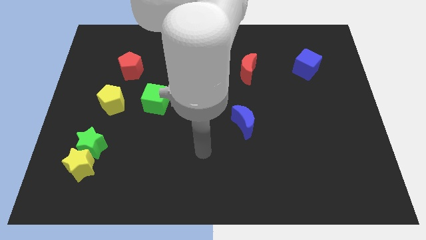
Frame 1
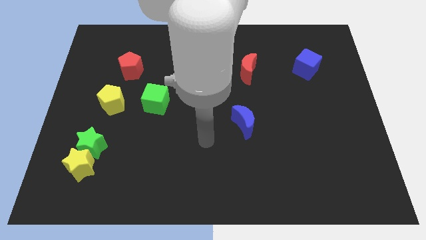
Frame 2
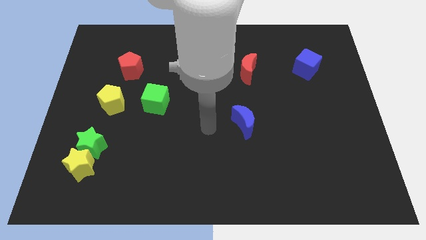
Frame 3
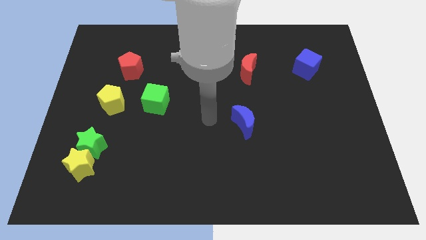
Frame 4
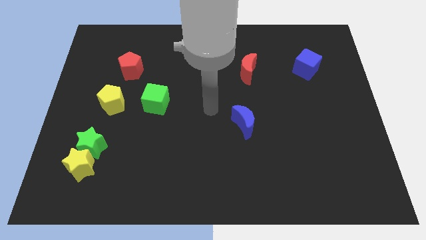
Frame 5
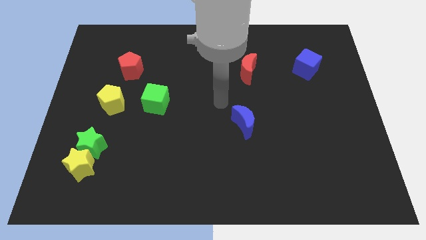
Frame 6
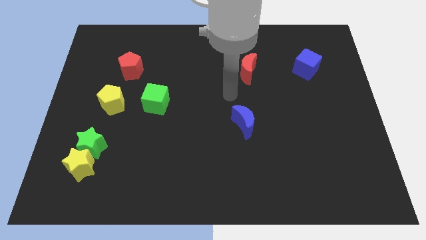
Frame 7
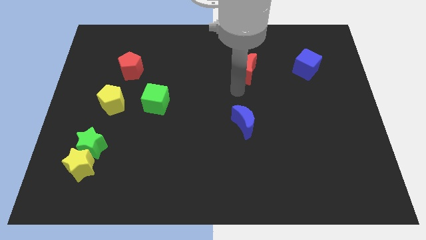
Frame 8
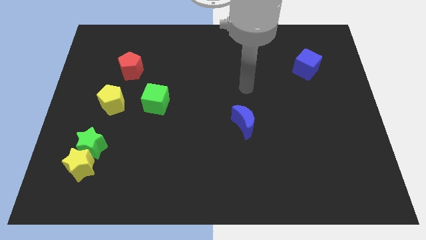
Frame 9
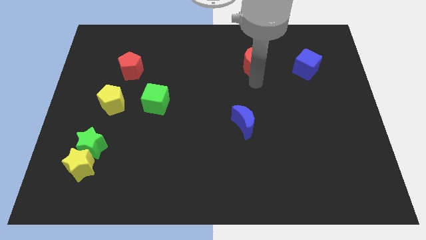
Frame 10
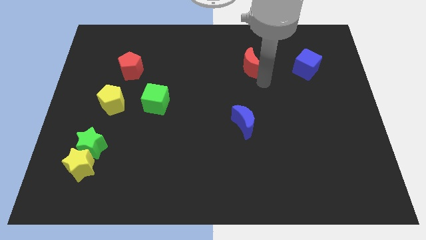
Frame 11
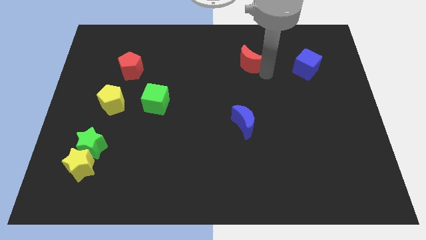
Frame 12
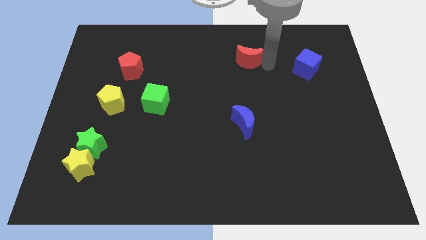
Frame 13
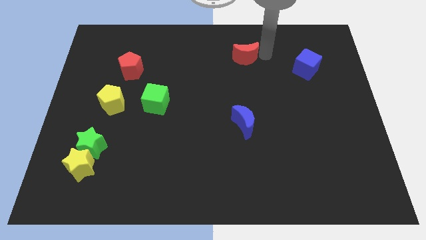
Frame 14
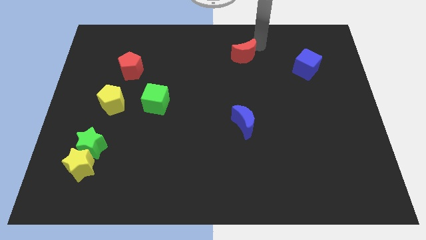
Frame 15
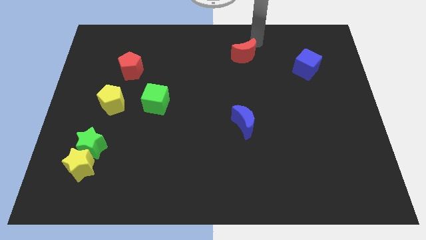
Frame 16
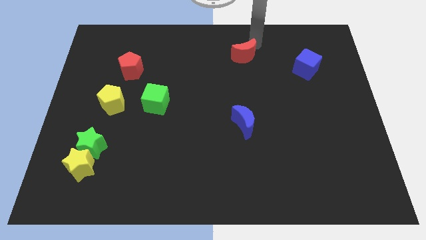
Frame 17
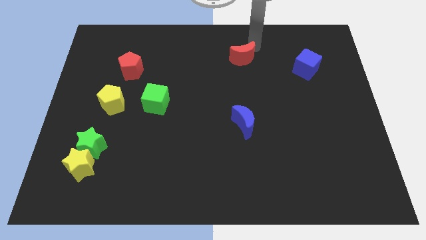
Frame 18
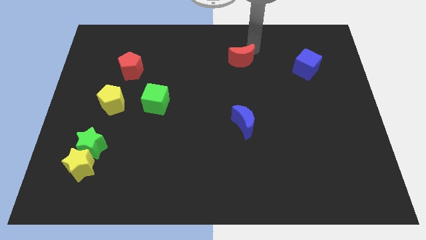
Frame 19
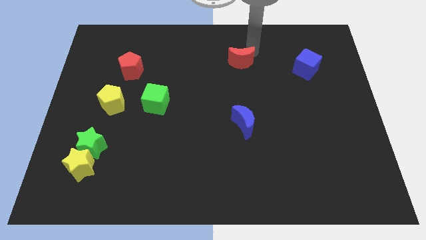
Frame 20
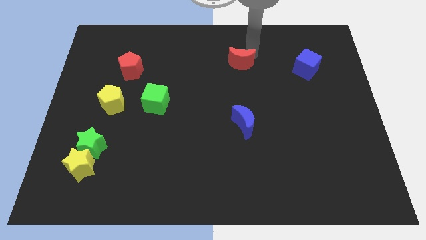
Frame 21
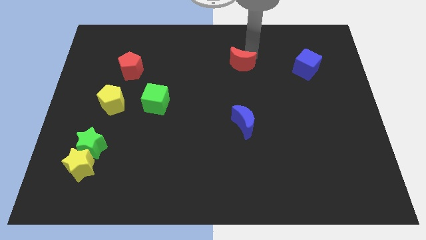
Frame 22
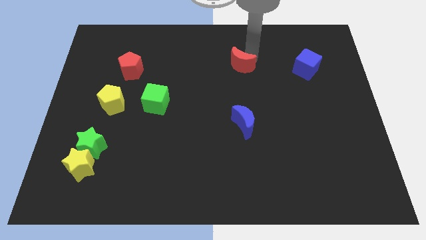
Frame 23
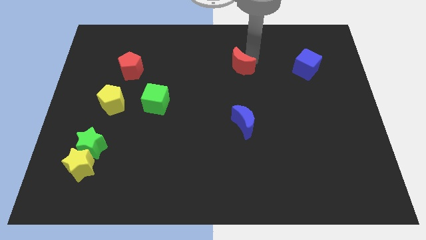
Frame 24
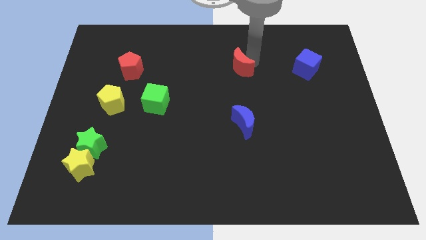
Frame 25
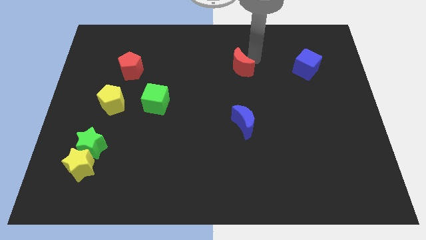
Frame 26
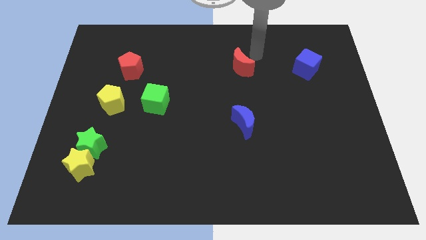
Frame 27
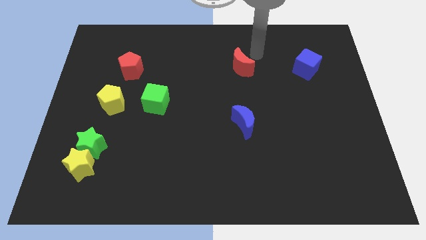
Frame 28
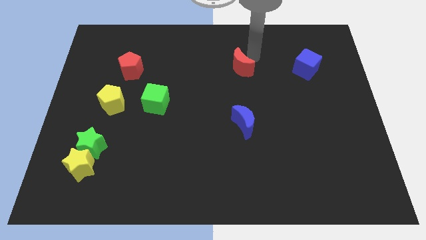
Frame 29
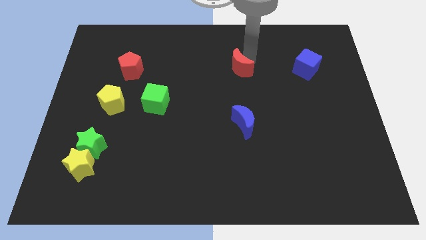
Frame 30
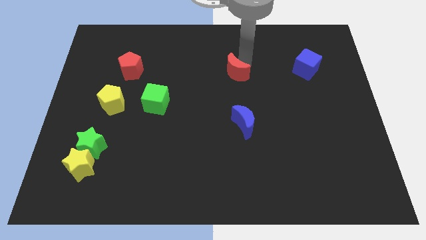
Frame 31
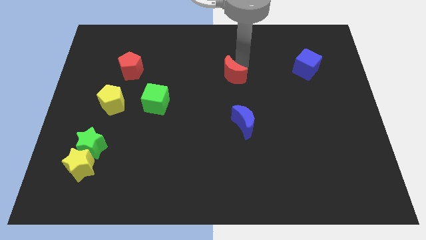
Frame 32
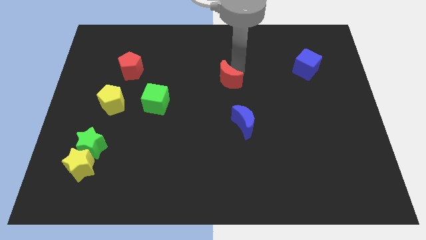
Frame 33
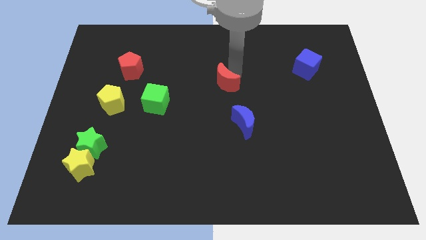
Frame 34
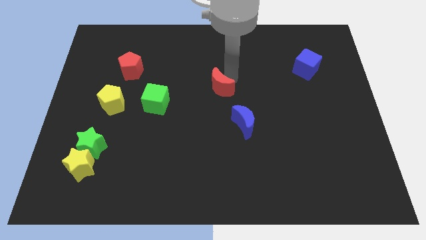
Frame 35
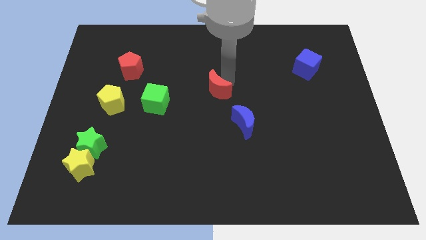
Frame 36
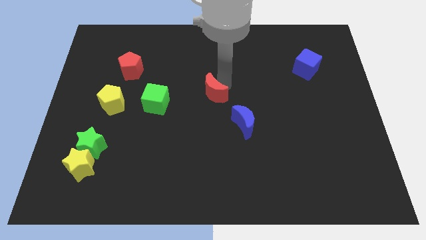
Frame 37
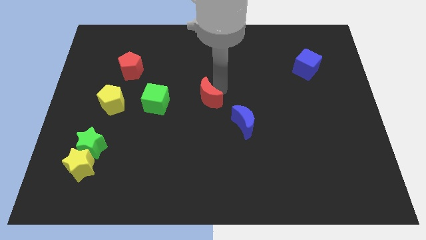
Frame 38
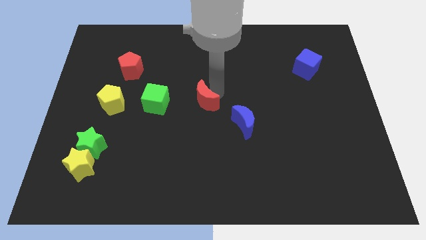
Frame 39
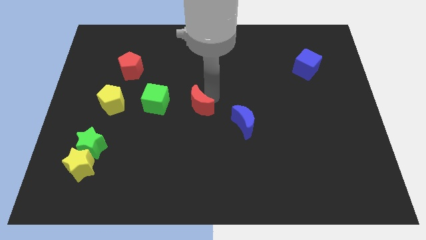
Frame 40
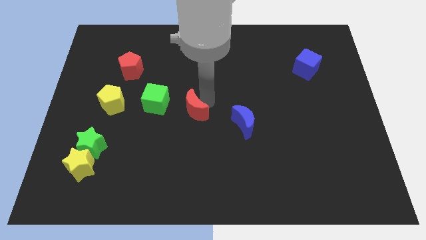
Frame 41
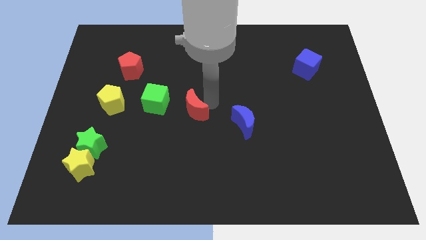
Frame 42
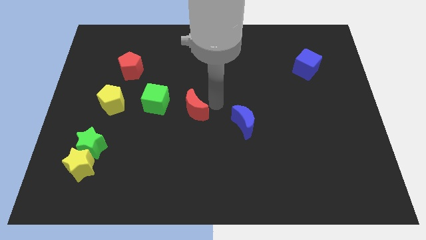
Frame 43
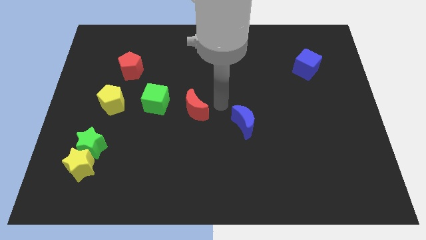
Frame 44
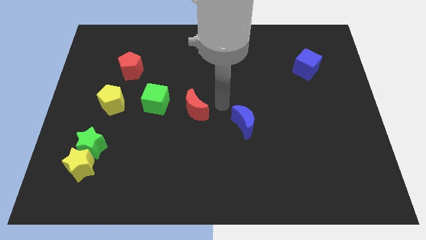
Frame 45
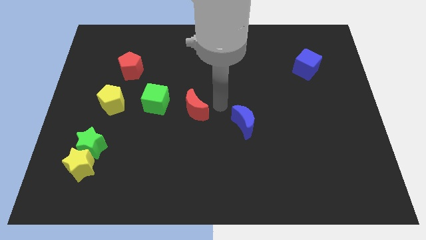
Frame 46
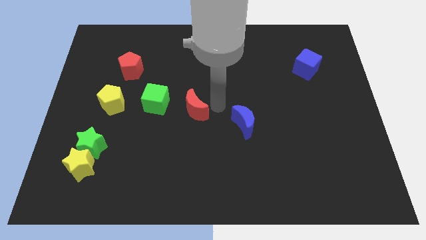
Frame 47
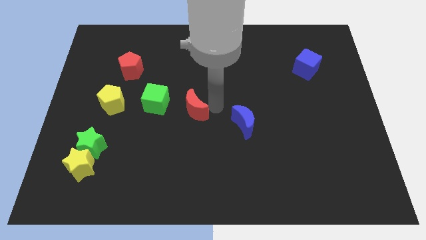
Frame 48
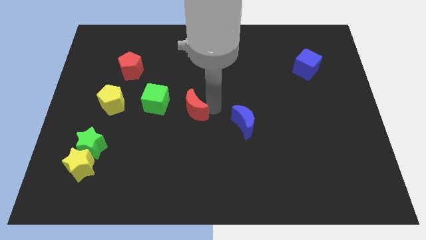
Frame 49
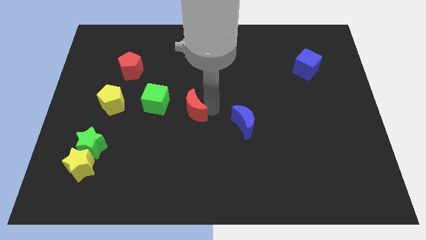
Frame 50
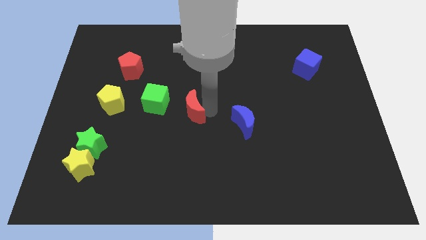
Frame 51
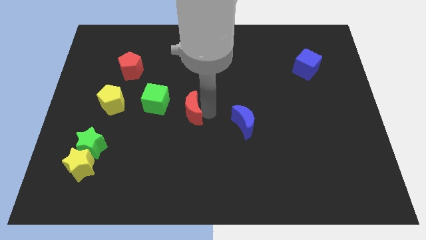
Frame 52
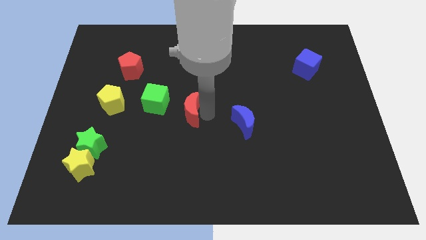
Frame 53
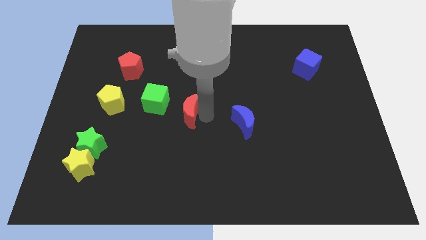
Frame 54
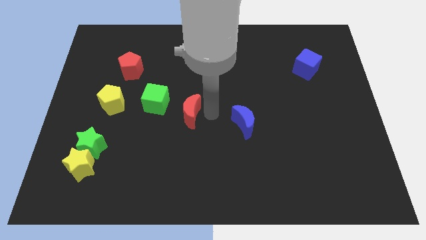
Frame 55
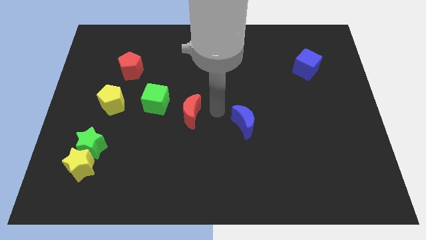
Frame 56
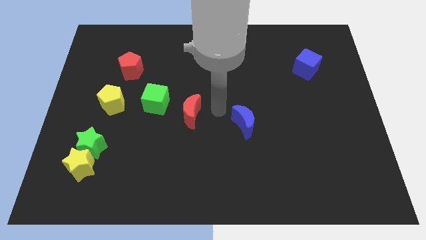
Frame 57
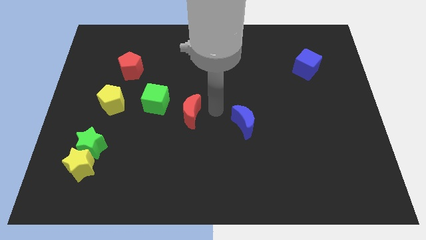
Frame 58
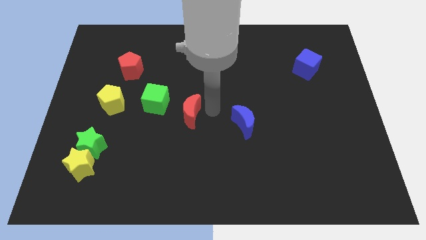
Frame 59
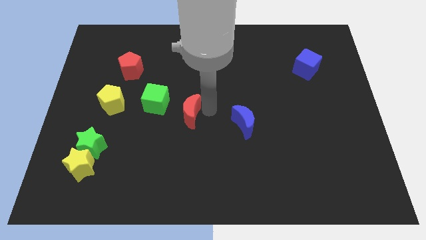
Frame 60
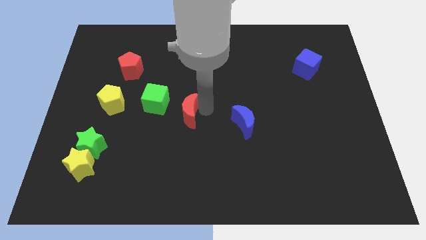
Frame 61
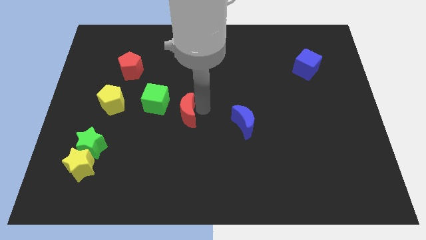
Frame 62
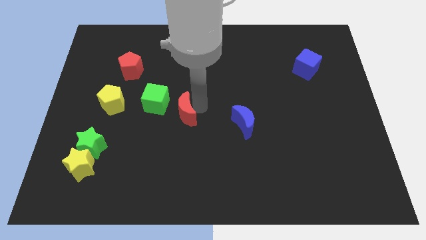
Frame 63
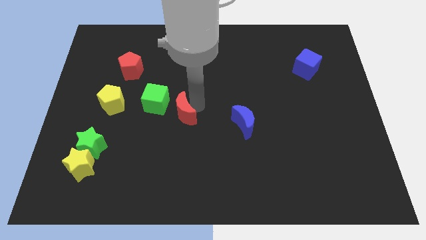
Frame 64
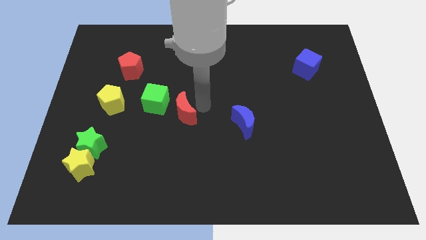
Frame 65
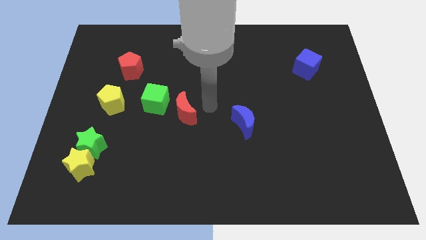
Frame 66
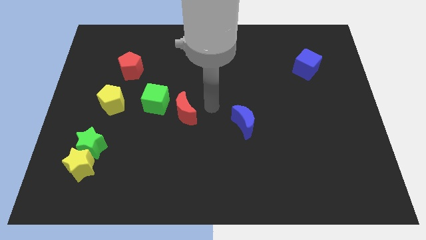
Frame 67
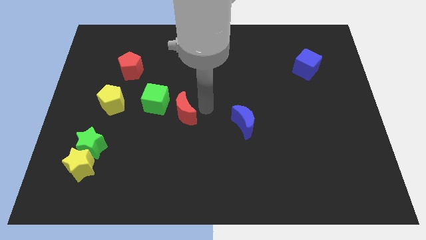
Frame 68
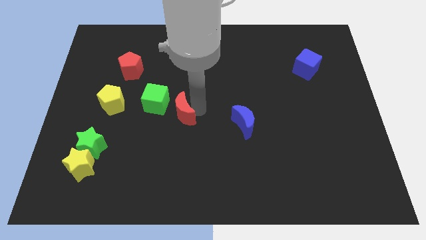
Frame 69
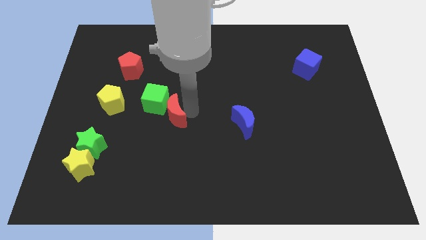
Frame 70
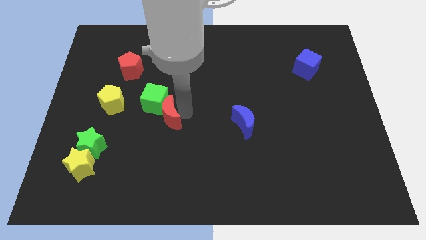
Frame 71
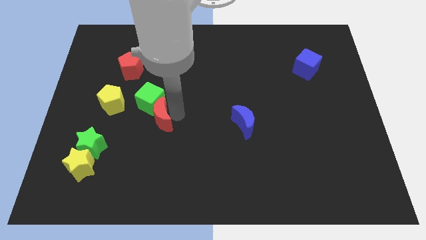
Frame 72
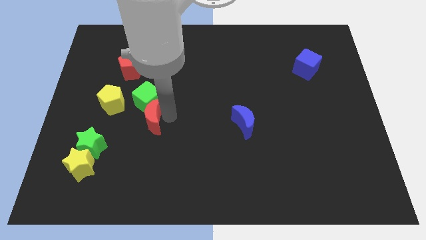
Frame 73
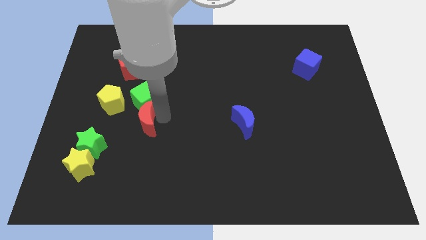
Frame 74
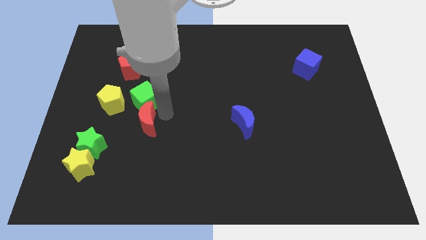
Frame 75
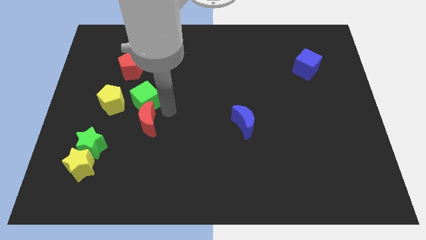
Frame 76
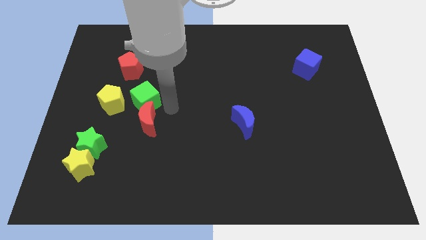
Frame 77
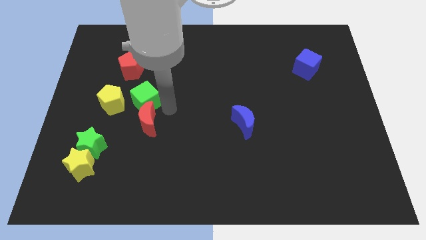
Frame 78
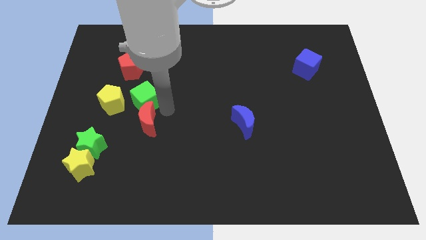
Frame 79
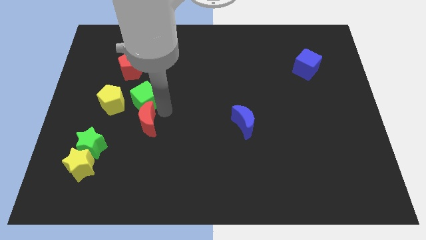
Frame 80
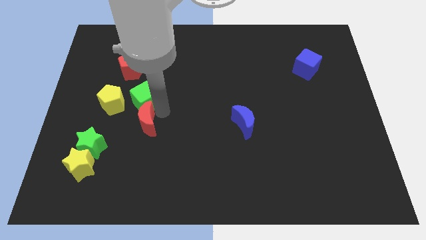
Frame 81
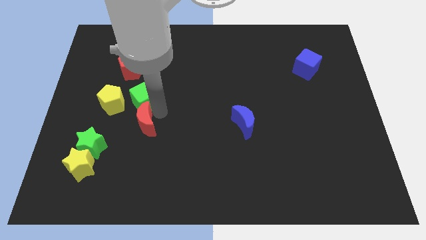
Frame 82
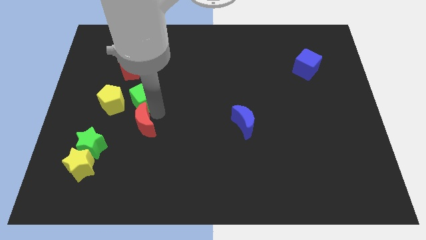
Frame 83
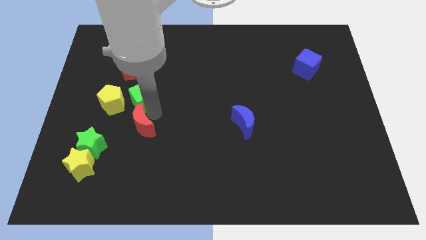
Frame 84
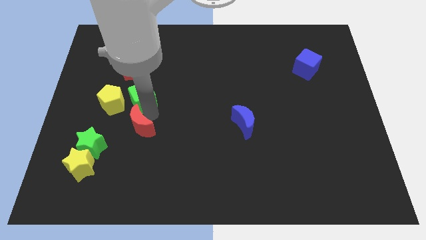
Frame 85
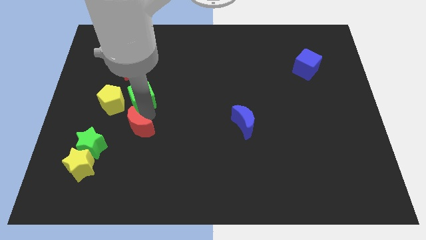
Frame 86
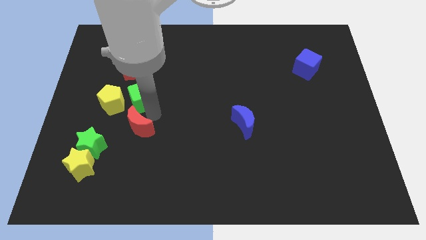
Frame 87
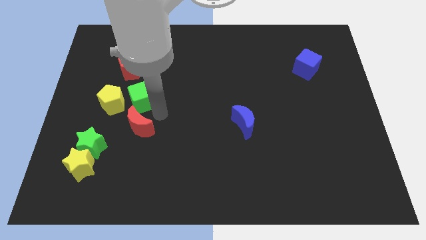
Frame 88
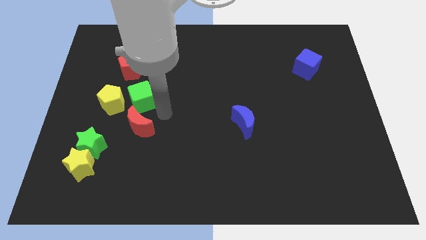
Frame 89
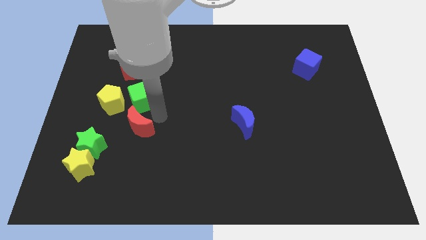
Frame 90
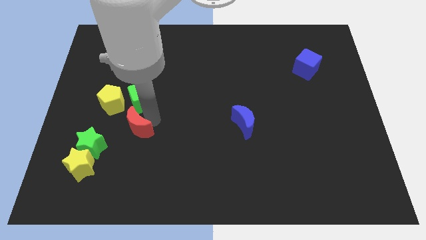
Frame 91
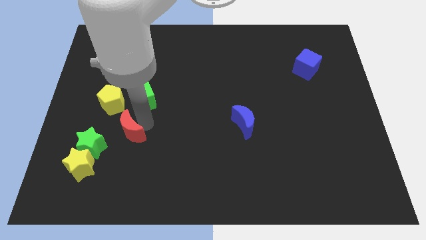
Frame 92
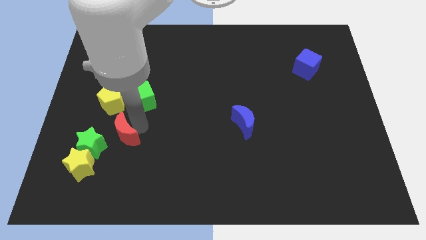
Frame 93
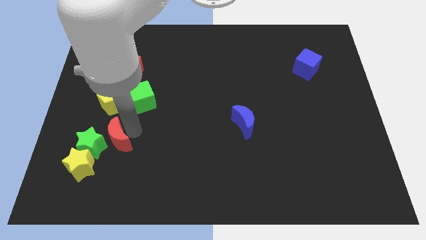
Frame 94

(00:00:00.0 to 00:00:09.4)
put the red moon close to the green star
